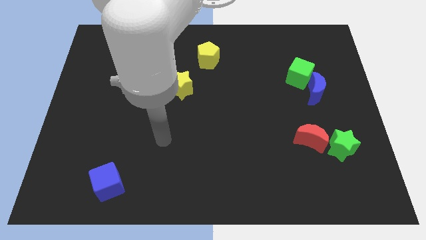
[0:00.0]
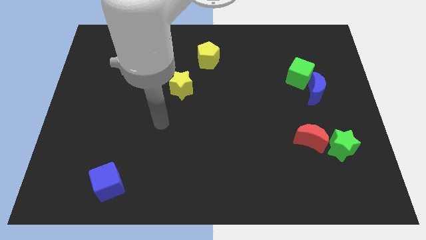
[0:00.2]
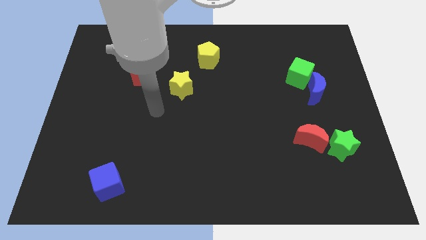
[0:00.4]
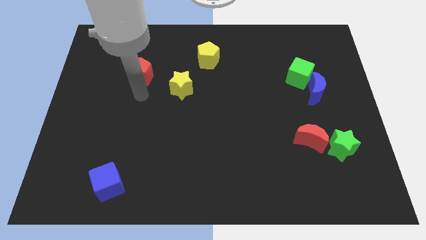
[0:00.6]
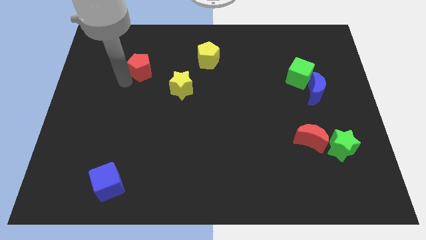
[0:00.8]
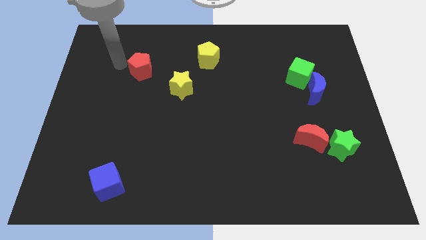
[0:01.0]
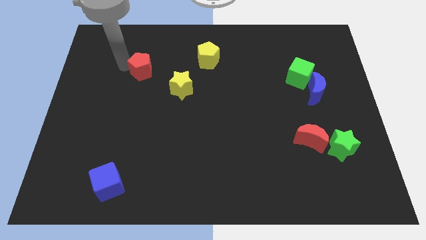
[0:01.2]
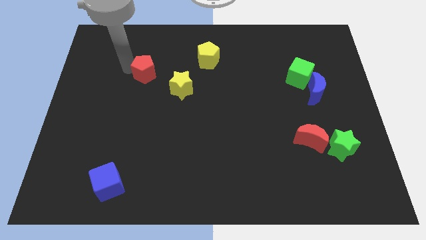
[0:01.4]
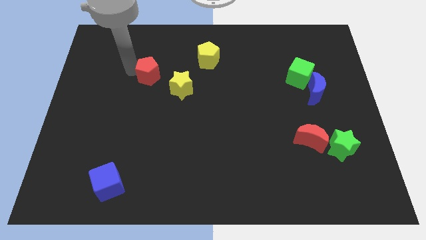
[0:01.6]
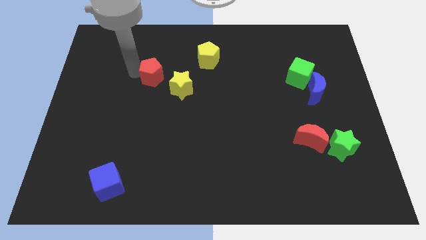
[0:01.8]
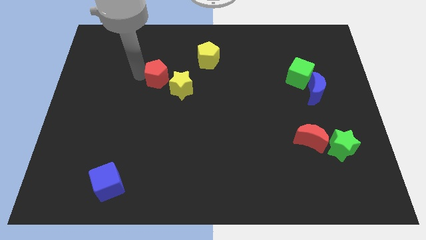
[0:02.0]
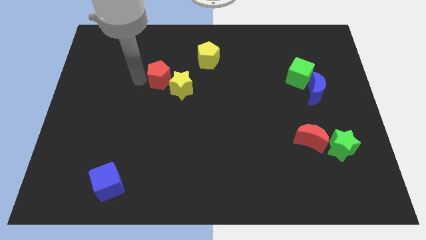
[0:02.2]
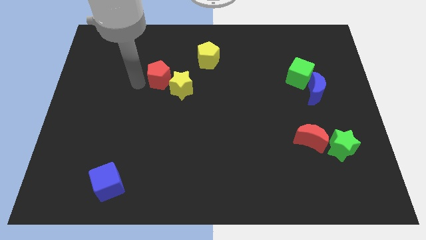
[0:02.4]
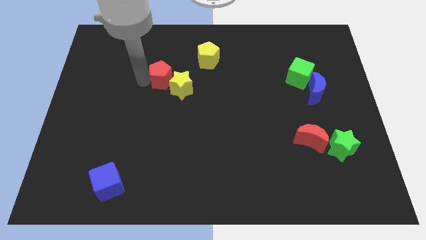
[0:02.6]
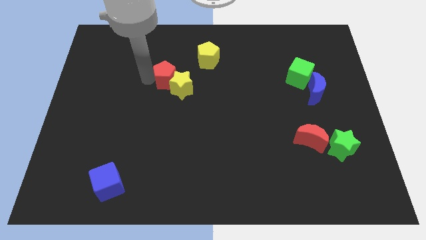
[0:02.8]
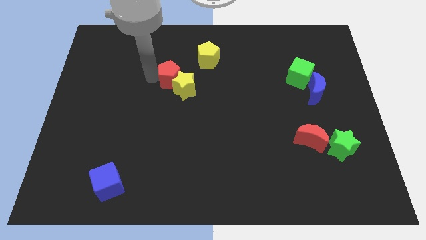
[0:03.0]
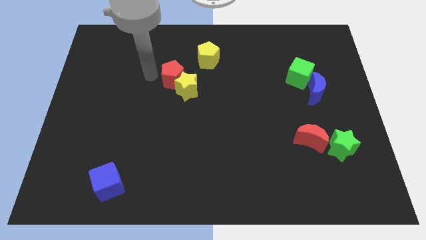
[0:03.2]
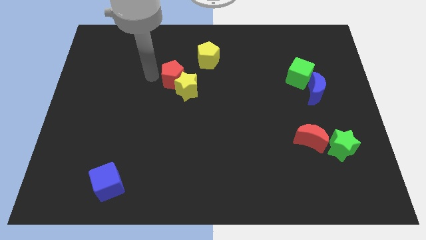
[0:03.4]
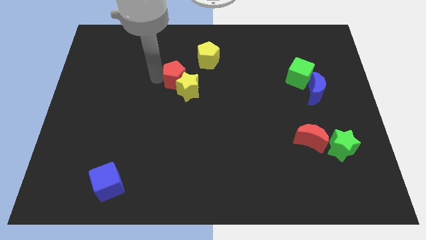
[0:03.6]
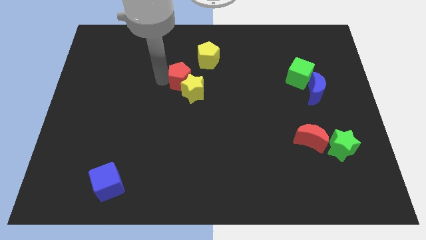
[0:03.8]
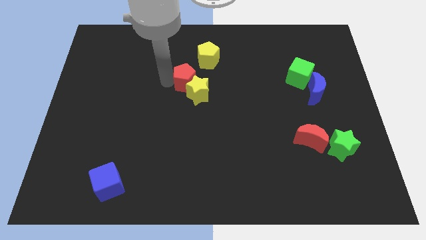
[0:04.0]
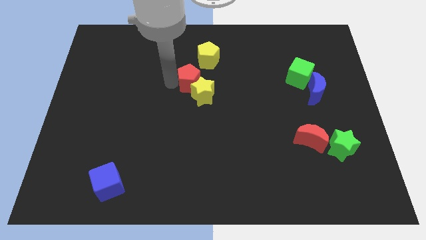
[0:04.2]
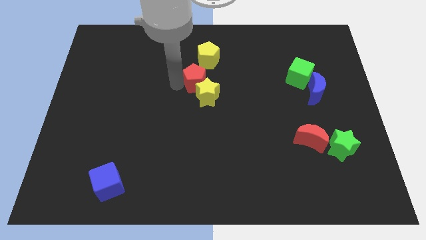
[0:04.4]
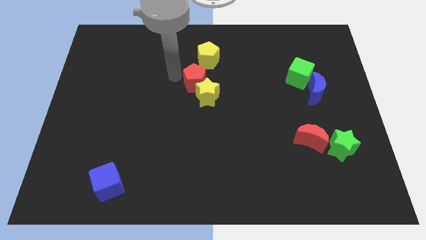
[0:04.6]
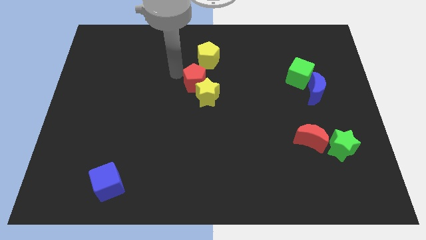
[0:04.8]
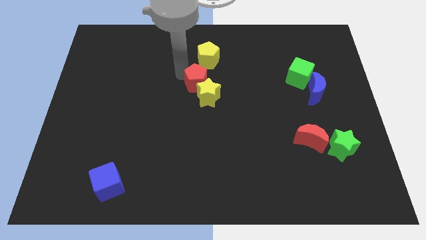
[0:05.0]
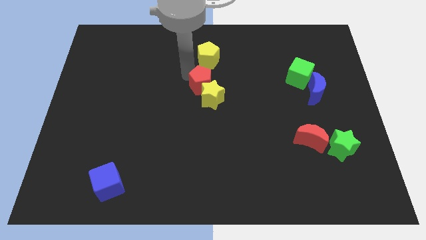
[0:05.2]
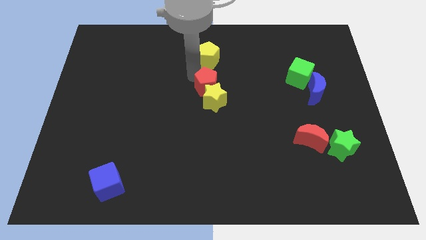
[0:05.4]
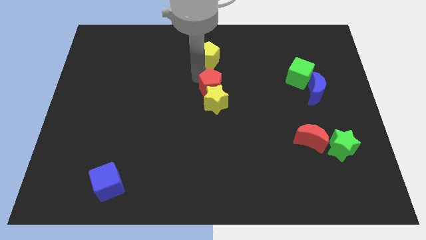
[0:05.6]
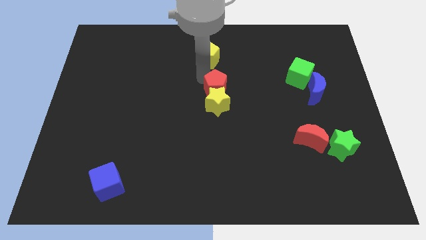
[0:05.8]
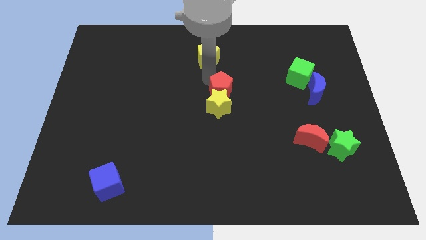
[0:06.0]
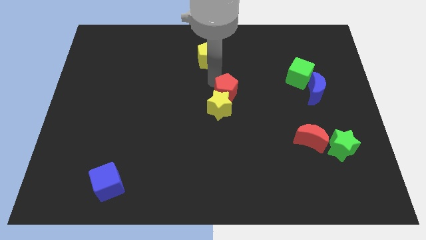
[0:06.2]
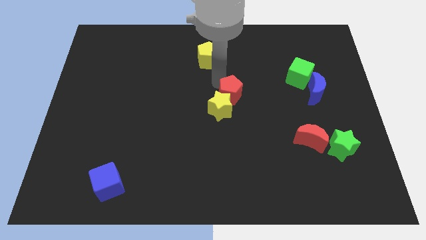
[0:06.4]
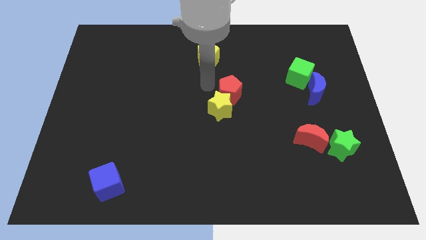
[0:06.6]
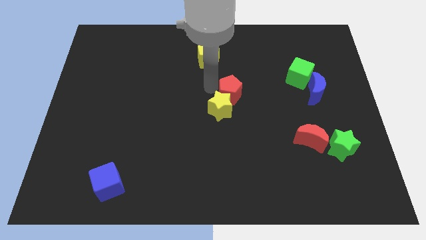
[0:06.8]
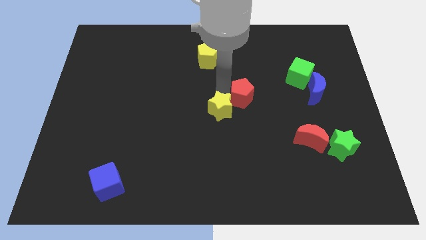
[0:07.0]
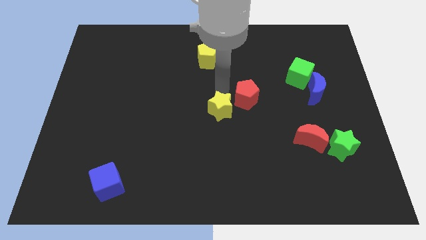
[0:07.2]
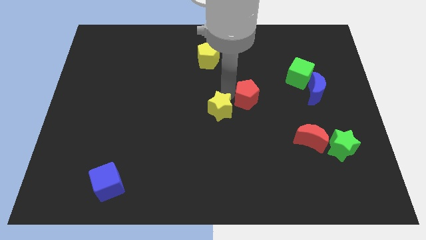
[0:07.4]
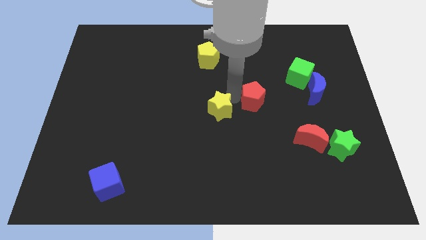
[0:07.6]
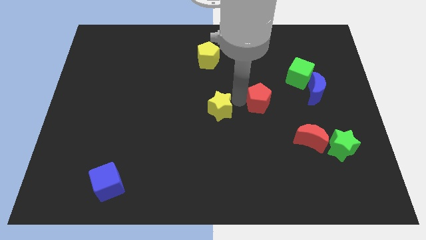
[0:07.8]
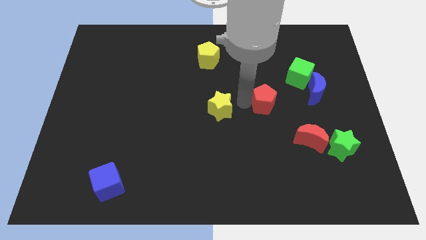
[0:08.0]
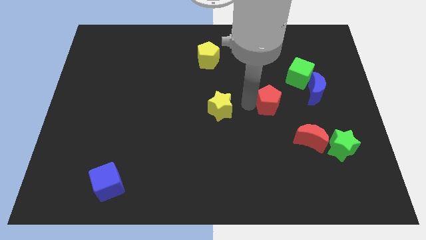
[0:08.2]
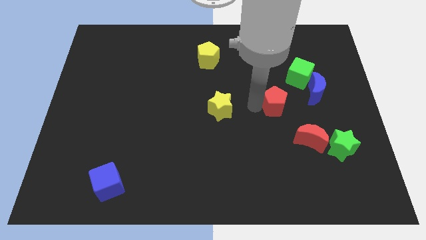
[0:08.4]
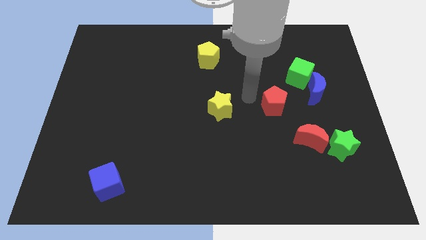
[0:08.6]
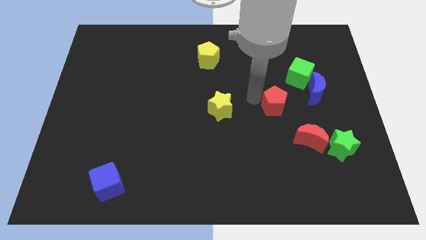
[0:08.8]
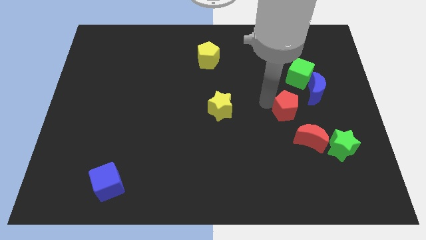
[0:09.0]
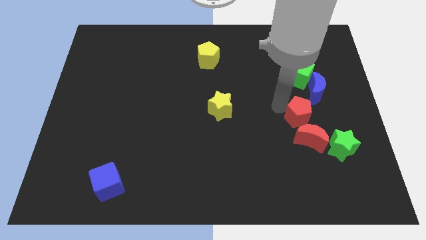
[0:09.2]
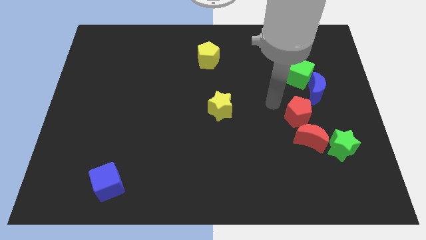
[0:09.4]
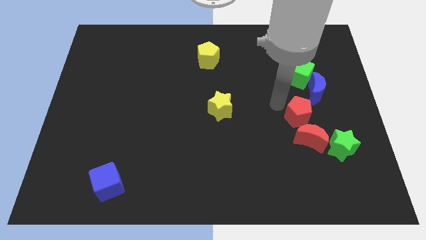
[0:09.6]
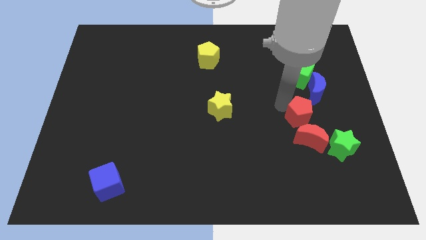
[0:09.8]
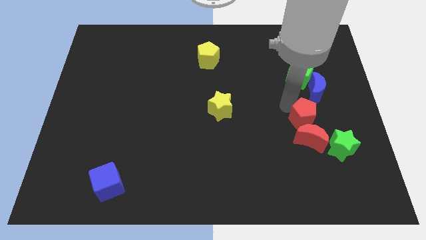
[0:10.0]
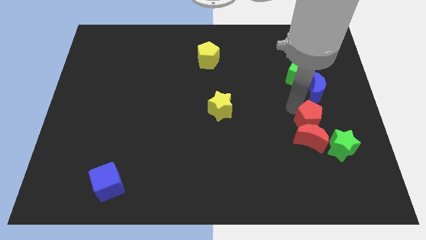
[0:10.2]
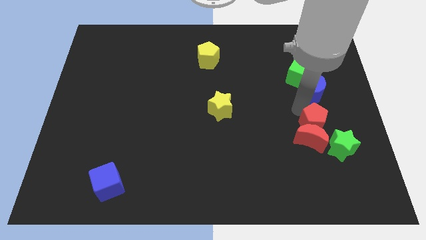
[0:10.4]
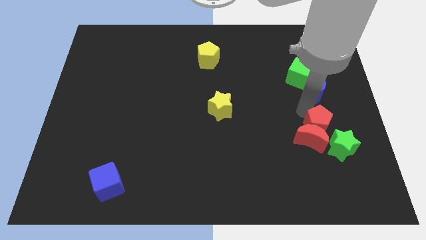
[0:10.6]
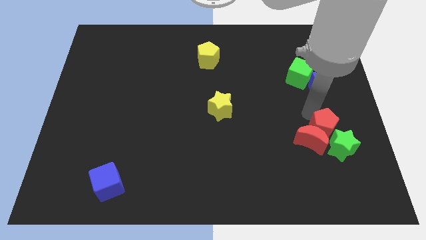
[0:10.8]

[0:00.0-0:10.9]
move the red pentagon to the green star

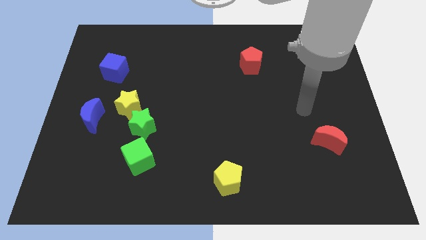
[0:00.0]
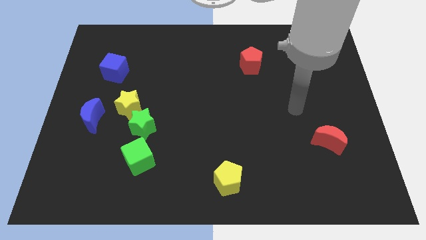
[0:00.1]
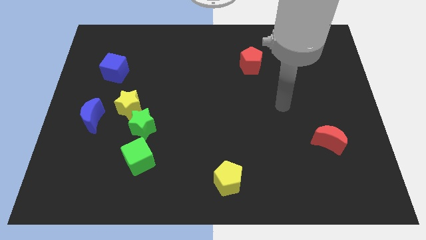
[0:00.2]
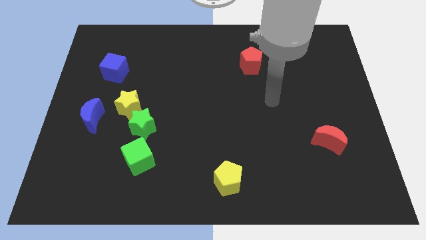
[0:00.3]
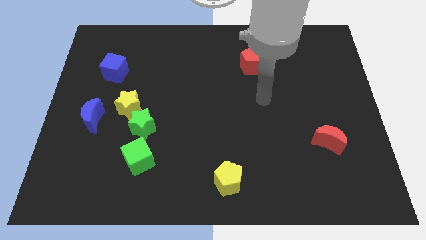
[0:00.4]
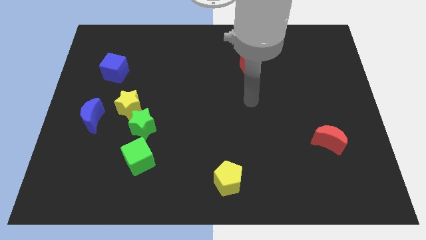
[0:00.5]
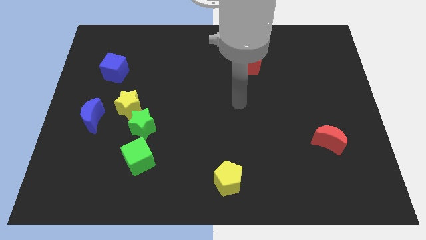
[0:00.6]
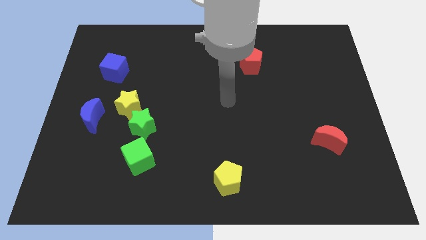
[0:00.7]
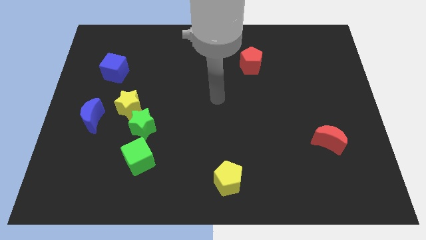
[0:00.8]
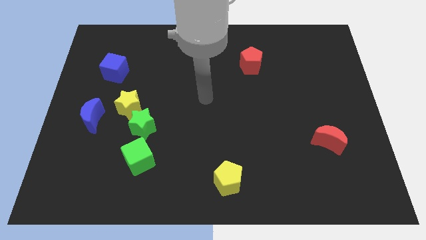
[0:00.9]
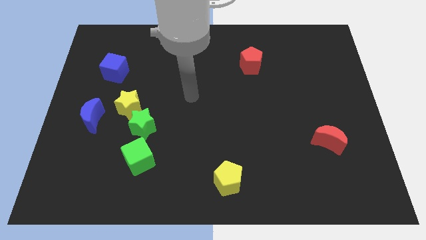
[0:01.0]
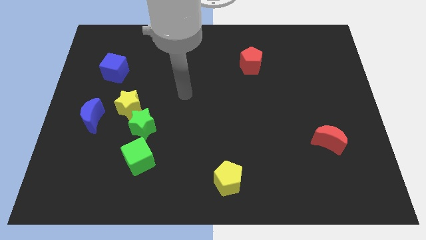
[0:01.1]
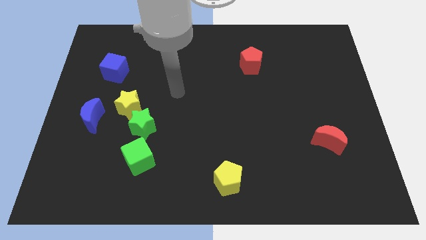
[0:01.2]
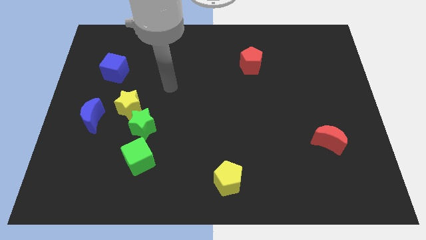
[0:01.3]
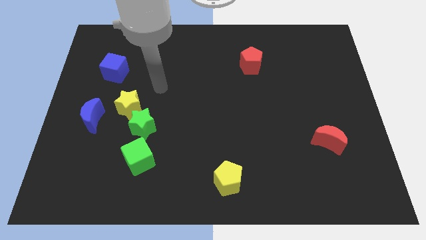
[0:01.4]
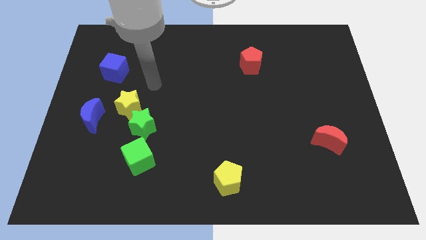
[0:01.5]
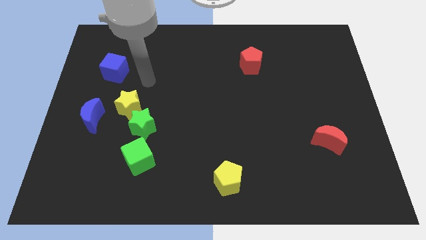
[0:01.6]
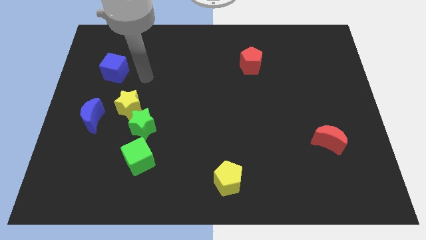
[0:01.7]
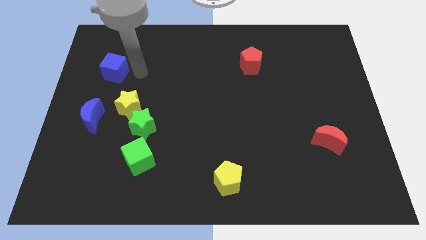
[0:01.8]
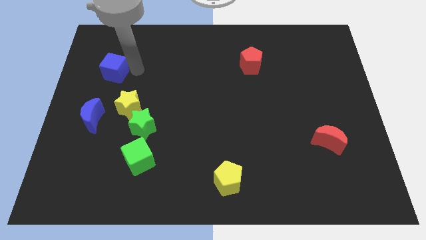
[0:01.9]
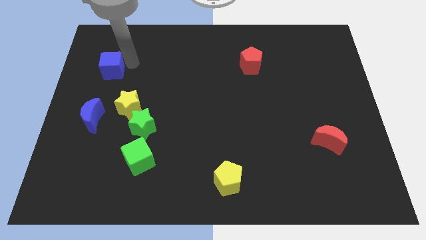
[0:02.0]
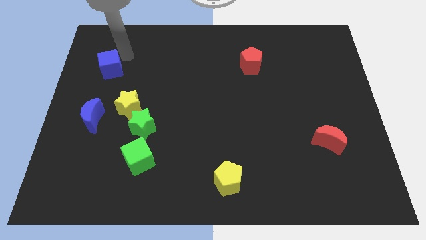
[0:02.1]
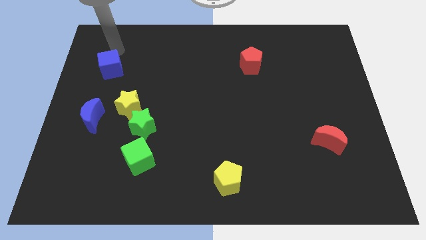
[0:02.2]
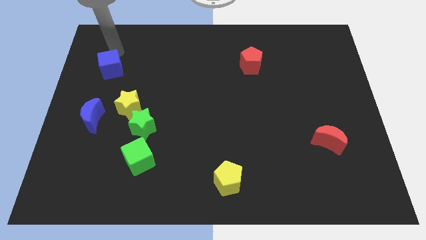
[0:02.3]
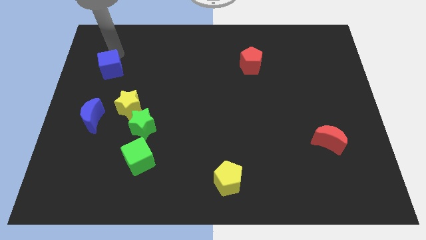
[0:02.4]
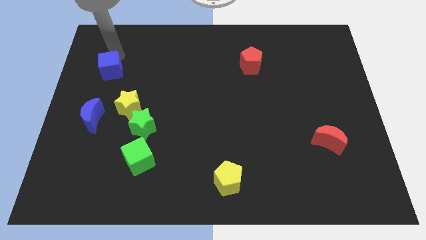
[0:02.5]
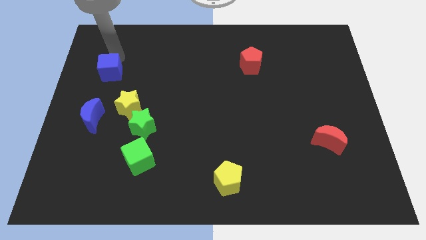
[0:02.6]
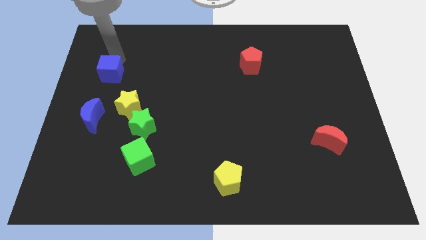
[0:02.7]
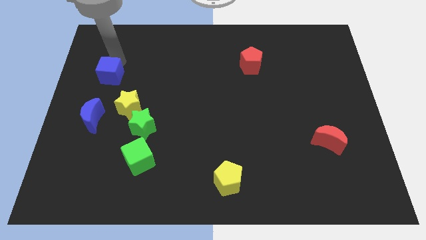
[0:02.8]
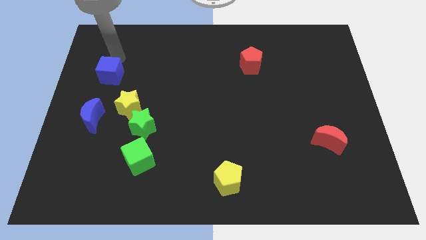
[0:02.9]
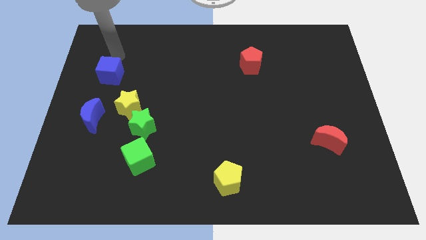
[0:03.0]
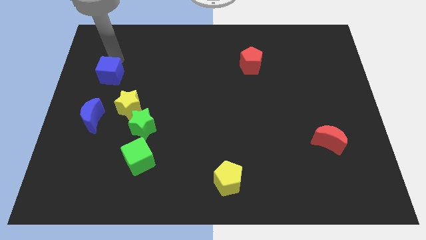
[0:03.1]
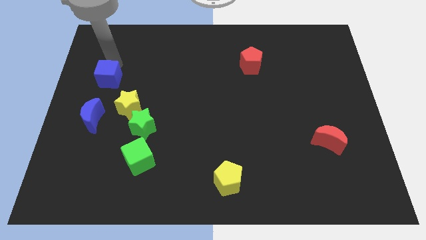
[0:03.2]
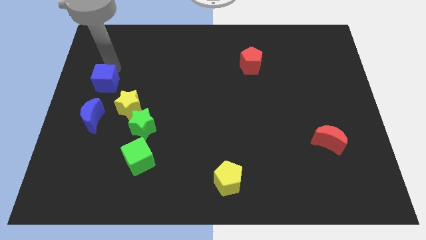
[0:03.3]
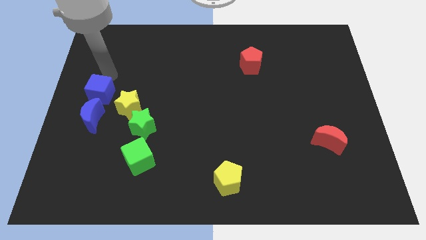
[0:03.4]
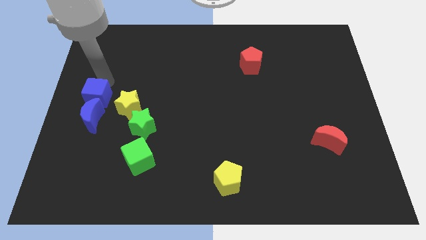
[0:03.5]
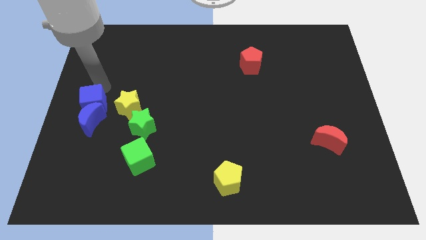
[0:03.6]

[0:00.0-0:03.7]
push the blue cube next to the blue moon
